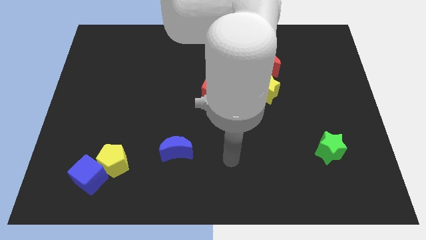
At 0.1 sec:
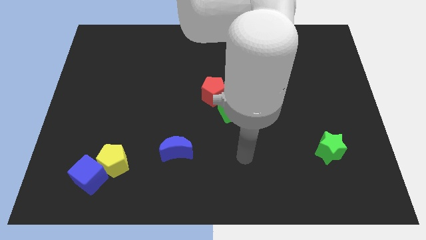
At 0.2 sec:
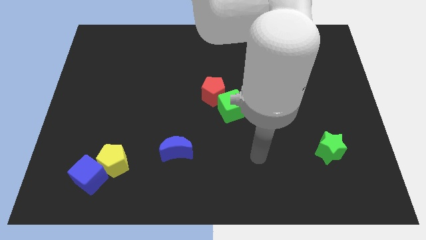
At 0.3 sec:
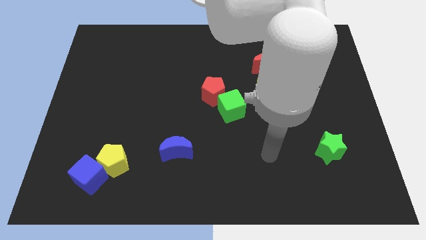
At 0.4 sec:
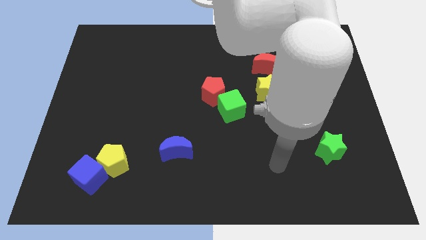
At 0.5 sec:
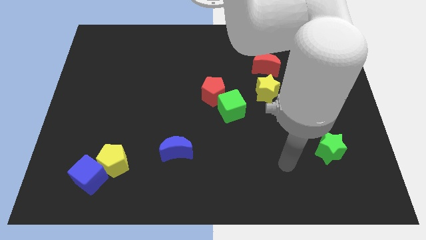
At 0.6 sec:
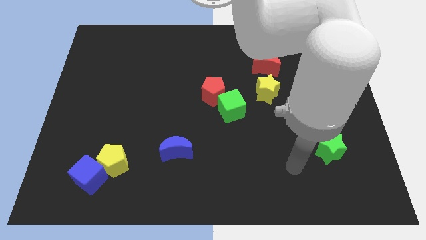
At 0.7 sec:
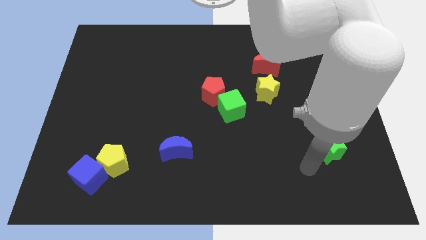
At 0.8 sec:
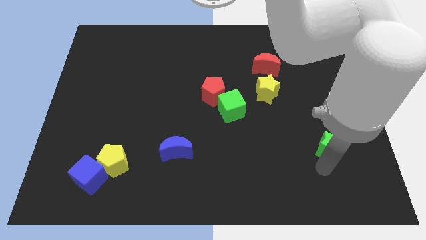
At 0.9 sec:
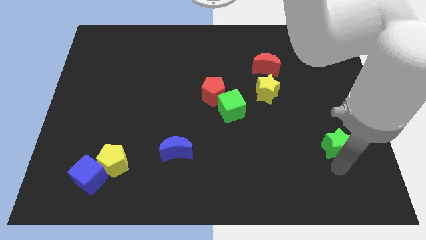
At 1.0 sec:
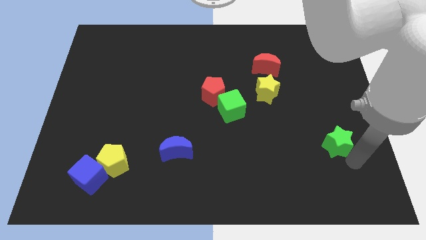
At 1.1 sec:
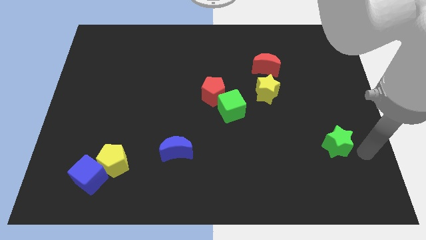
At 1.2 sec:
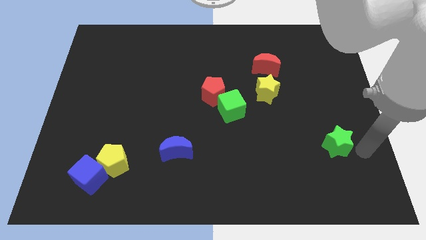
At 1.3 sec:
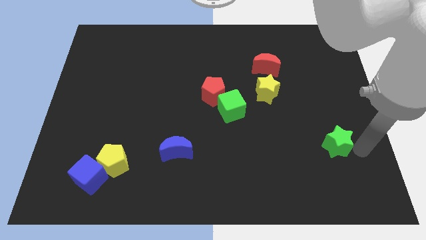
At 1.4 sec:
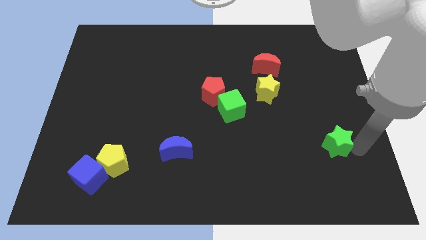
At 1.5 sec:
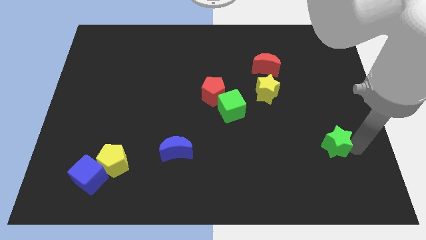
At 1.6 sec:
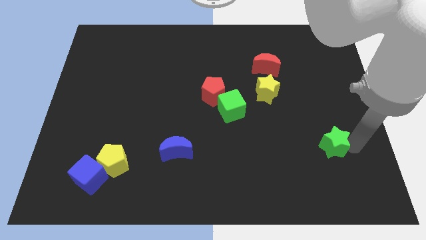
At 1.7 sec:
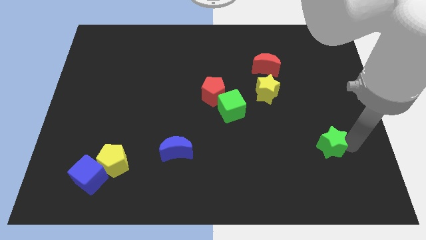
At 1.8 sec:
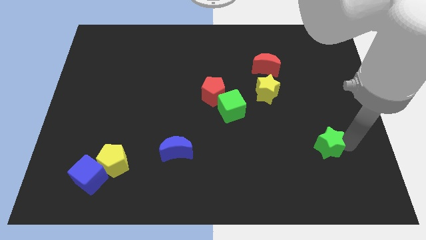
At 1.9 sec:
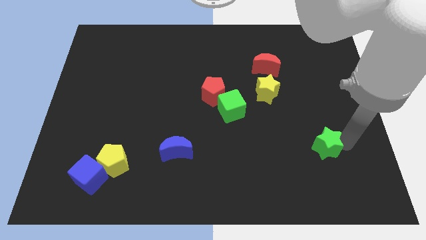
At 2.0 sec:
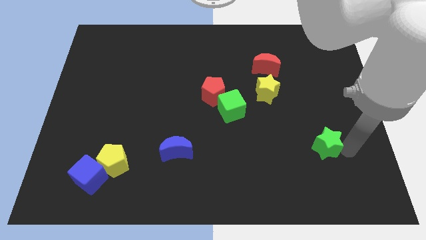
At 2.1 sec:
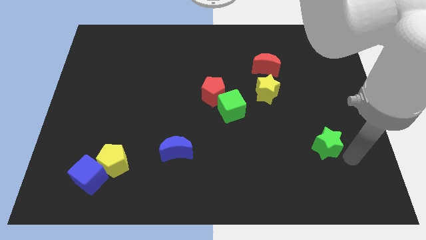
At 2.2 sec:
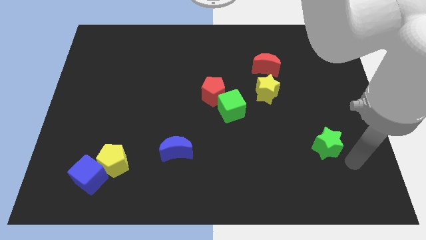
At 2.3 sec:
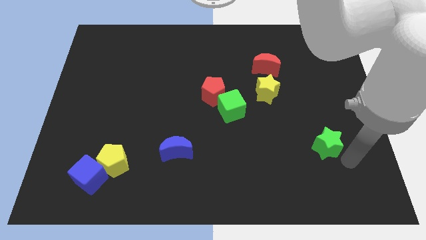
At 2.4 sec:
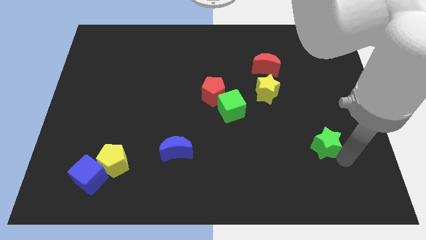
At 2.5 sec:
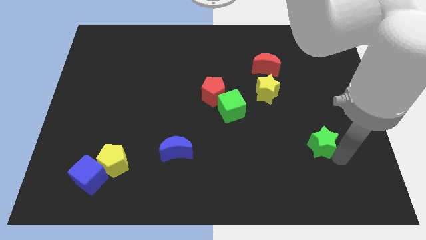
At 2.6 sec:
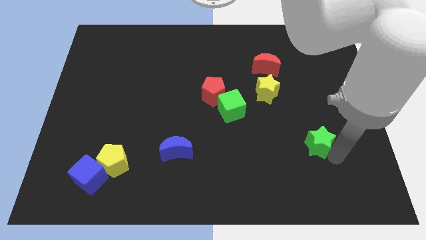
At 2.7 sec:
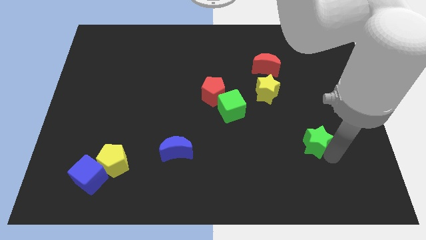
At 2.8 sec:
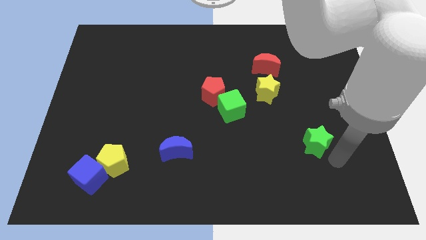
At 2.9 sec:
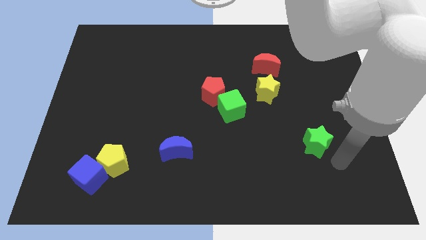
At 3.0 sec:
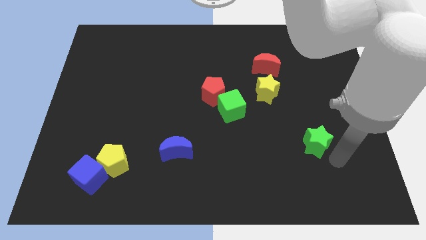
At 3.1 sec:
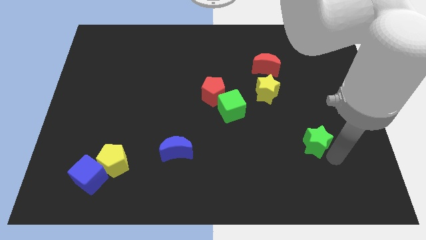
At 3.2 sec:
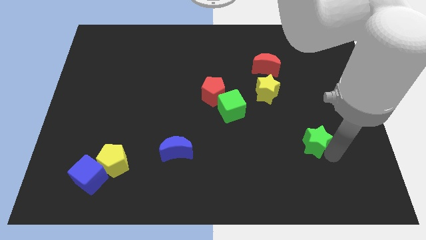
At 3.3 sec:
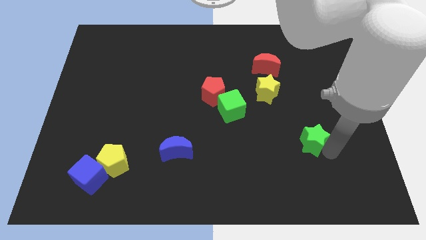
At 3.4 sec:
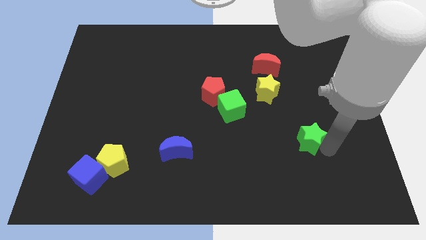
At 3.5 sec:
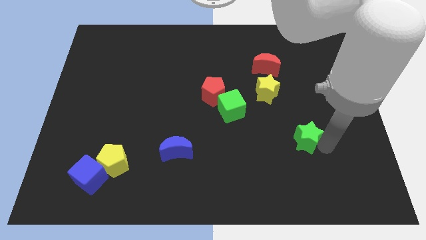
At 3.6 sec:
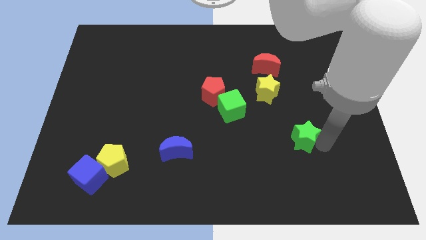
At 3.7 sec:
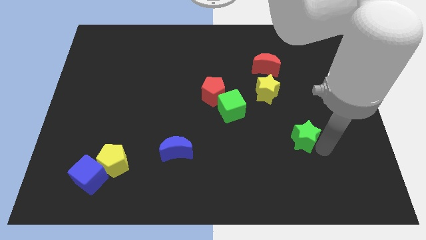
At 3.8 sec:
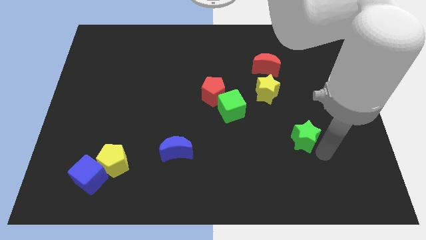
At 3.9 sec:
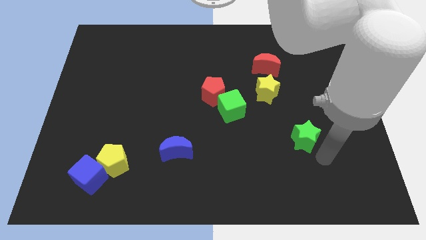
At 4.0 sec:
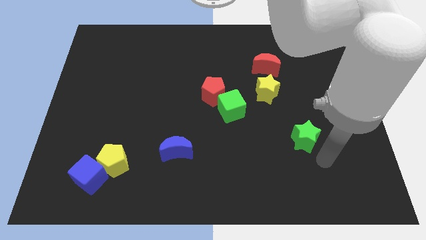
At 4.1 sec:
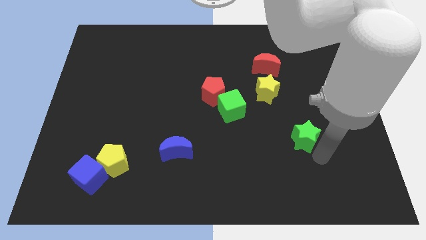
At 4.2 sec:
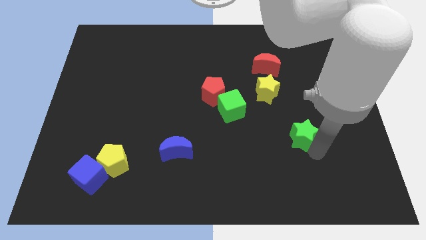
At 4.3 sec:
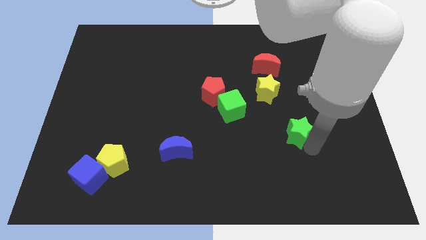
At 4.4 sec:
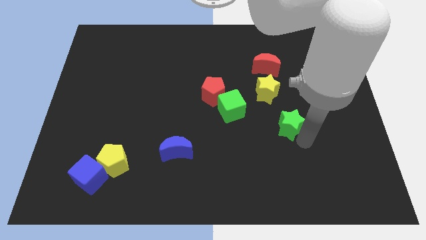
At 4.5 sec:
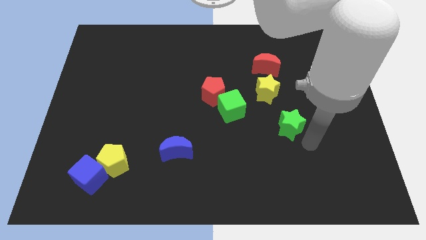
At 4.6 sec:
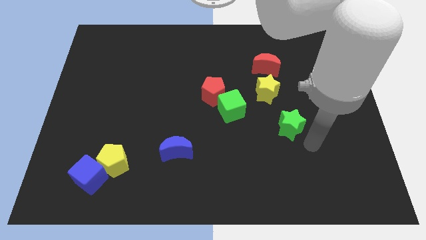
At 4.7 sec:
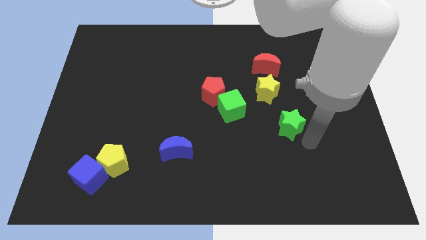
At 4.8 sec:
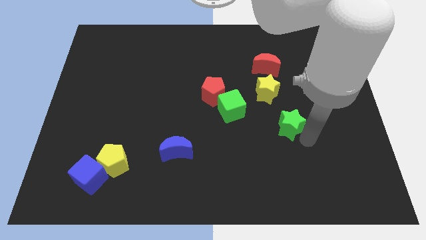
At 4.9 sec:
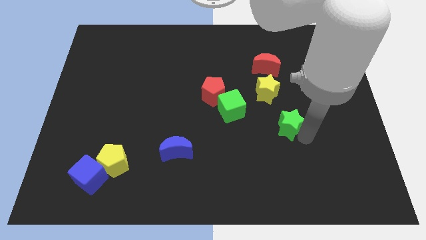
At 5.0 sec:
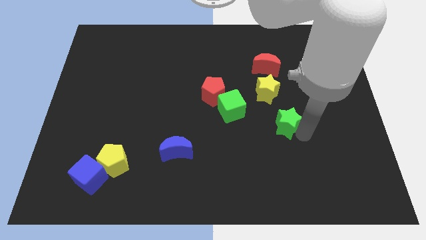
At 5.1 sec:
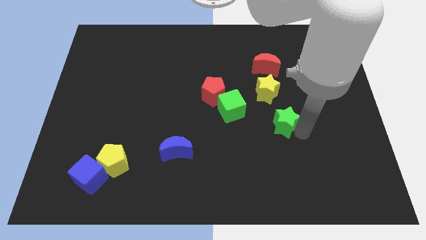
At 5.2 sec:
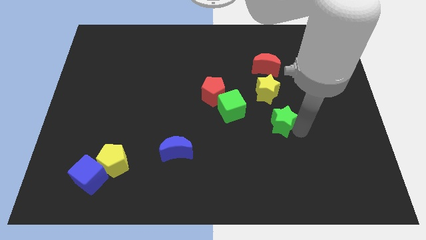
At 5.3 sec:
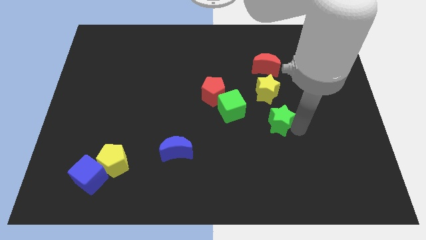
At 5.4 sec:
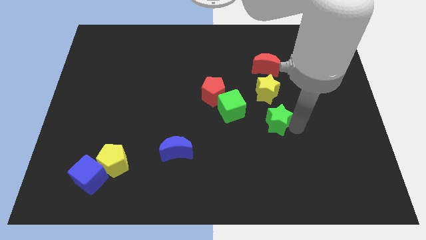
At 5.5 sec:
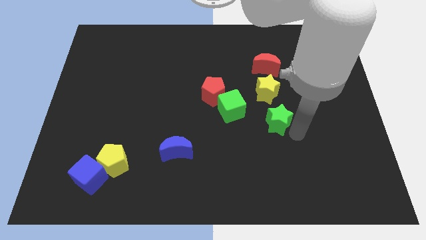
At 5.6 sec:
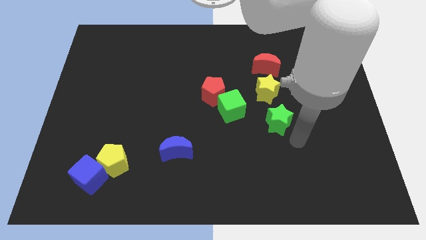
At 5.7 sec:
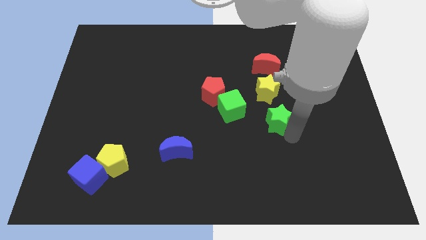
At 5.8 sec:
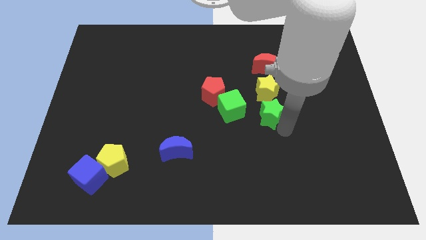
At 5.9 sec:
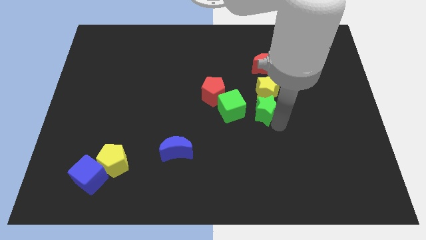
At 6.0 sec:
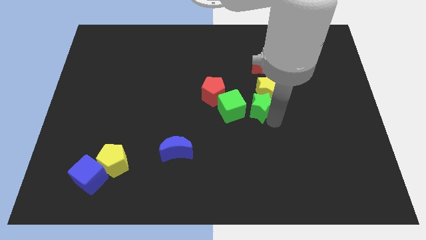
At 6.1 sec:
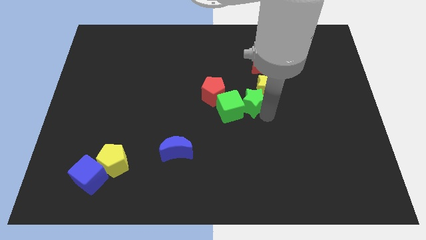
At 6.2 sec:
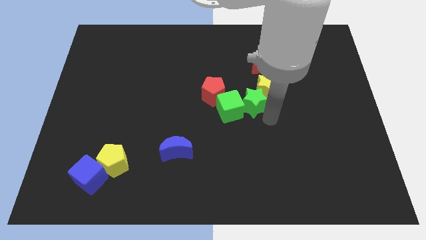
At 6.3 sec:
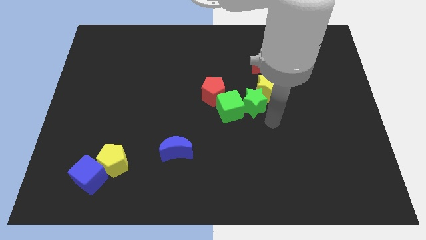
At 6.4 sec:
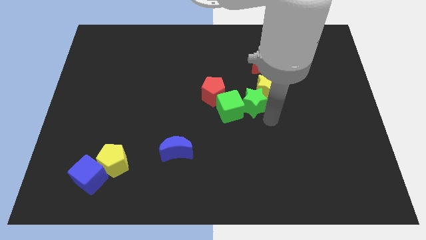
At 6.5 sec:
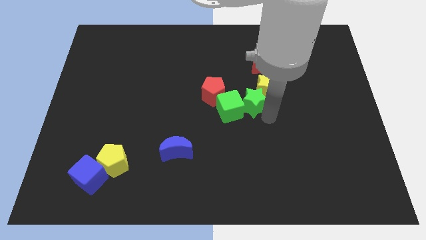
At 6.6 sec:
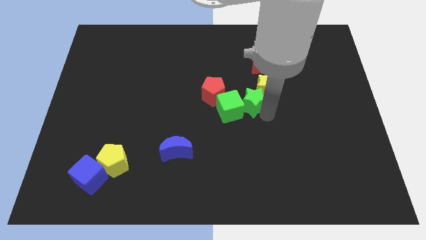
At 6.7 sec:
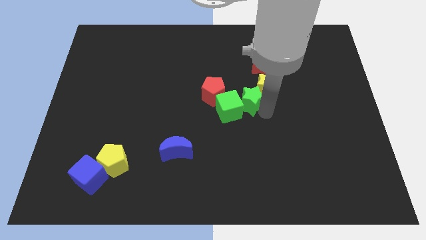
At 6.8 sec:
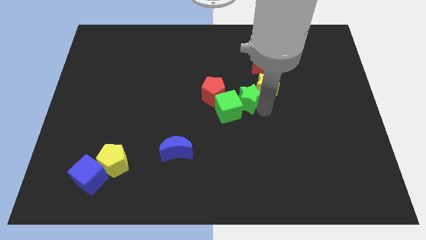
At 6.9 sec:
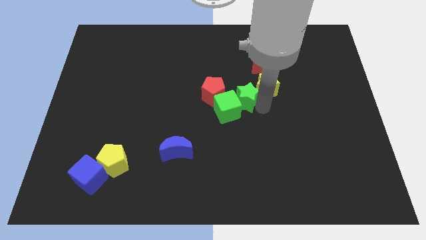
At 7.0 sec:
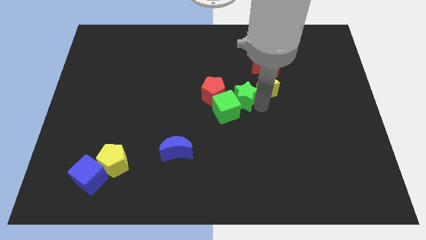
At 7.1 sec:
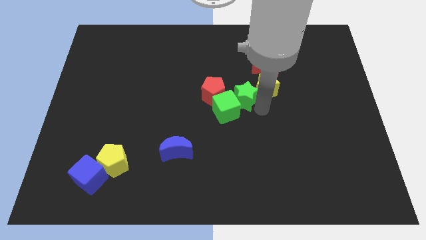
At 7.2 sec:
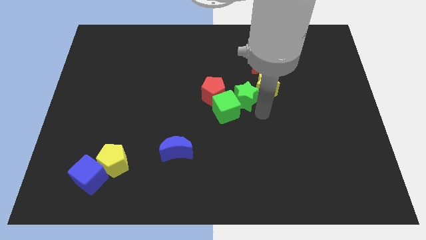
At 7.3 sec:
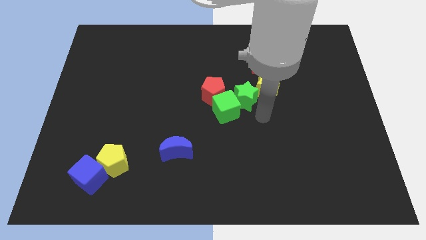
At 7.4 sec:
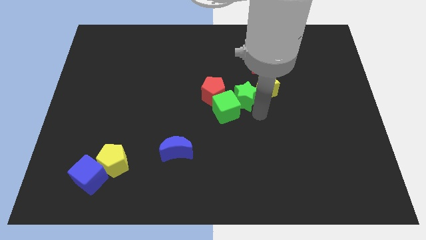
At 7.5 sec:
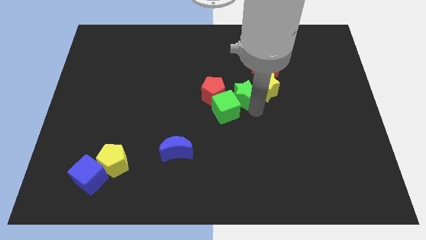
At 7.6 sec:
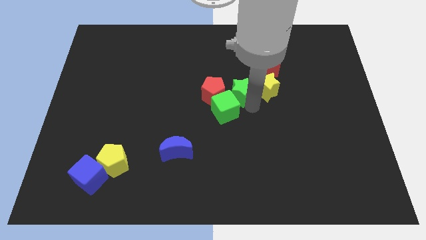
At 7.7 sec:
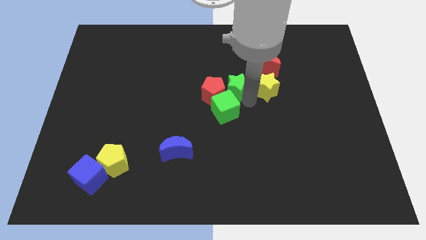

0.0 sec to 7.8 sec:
put the green star close to the red pentagon
